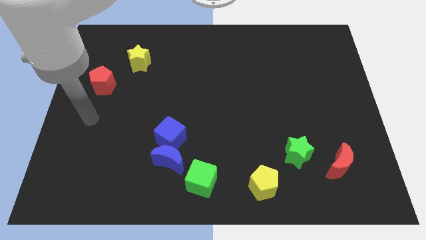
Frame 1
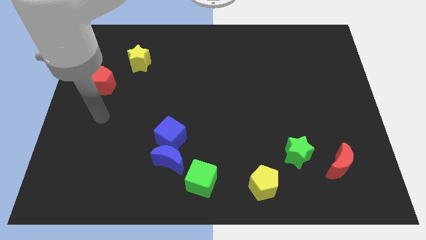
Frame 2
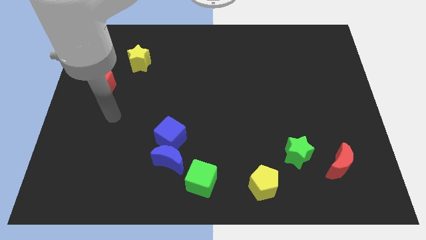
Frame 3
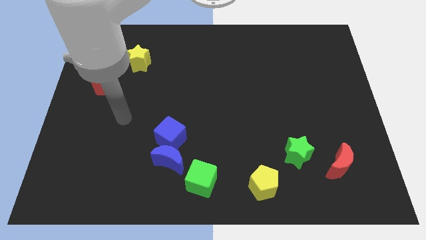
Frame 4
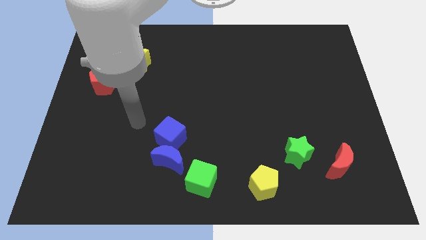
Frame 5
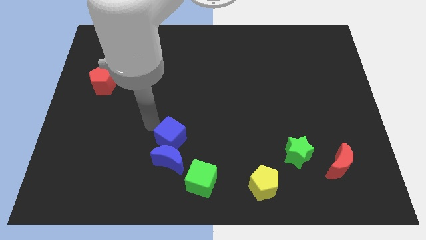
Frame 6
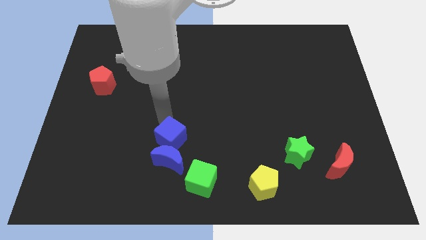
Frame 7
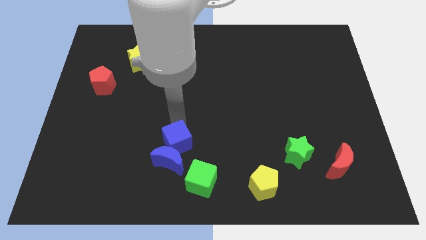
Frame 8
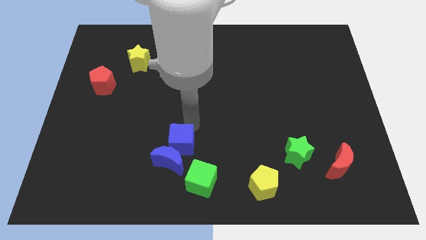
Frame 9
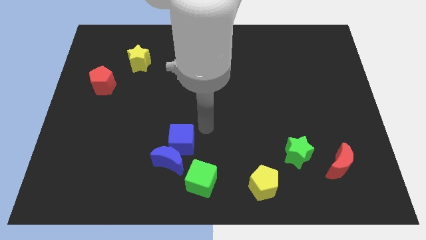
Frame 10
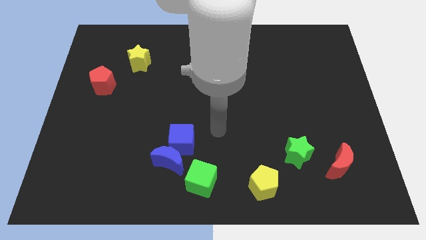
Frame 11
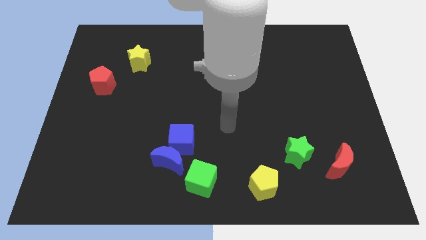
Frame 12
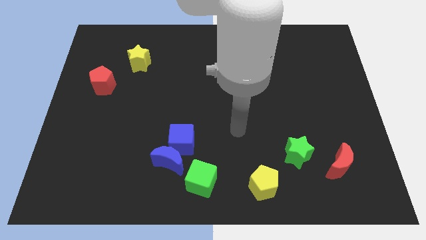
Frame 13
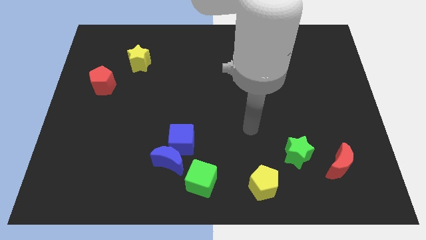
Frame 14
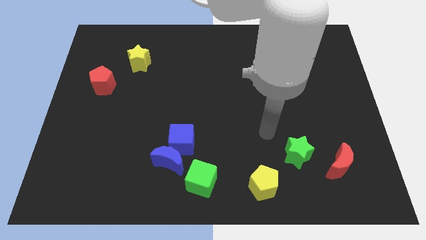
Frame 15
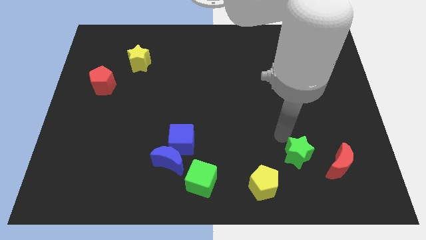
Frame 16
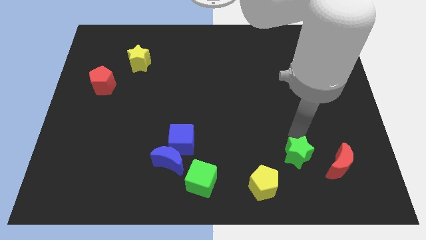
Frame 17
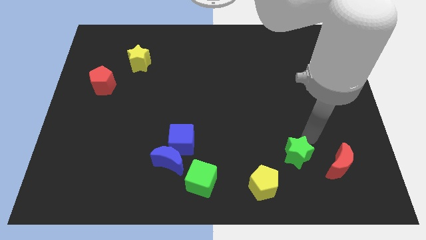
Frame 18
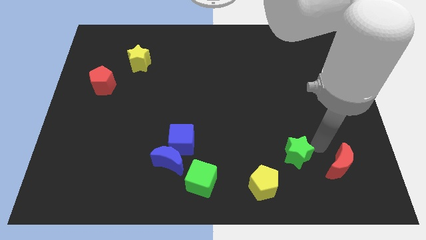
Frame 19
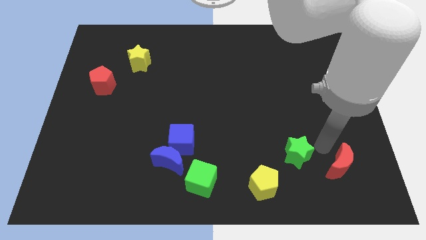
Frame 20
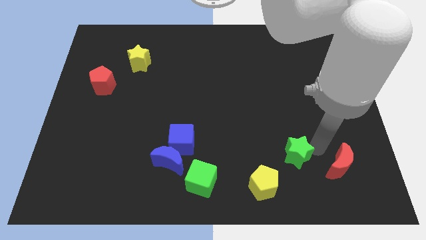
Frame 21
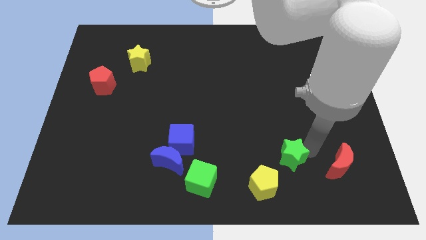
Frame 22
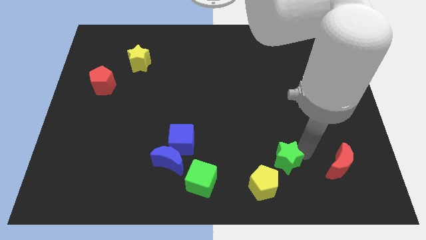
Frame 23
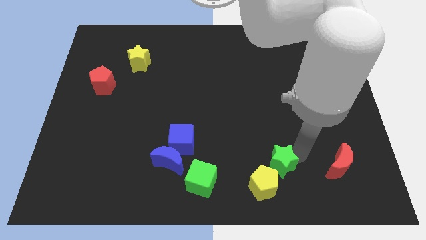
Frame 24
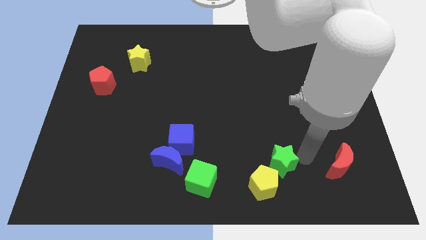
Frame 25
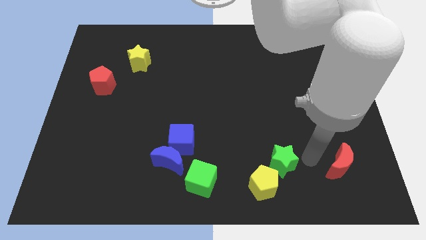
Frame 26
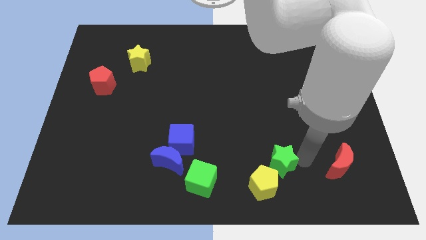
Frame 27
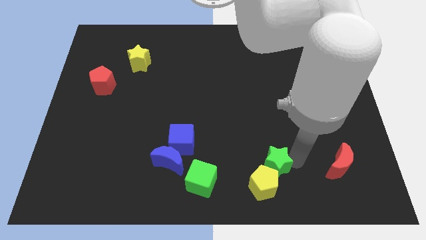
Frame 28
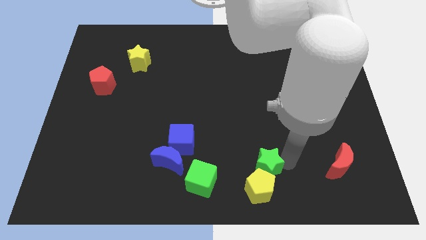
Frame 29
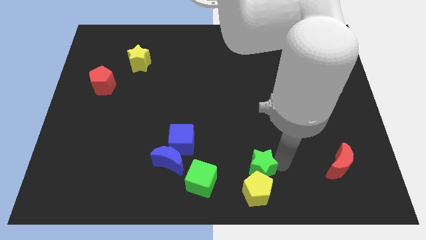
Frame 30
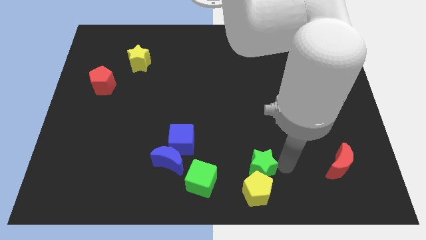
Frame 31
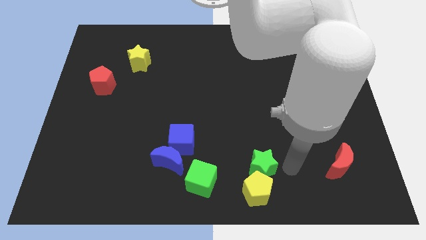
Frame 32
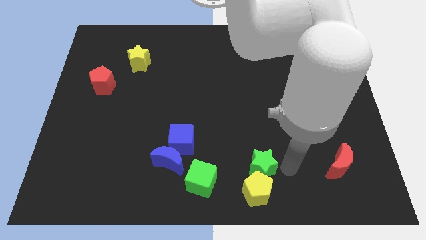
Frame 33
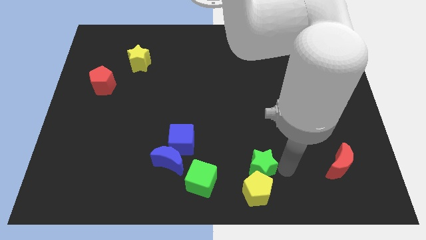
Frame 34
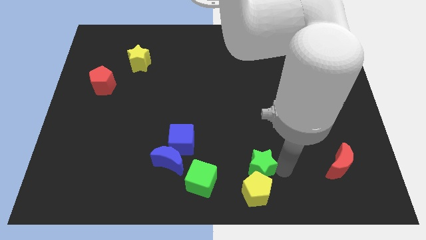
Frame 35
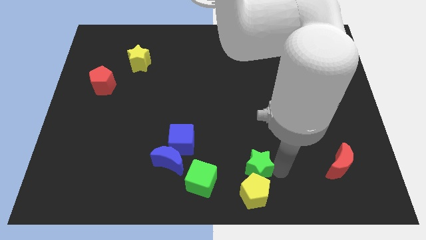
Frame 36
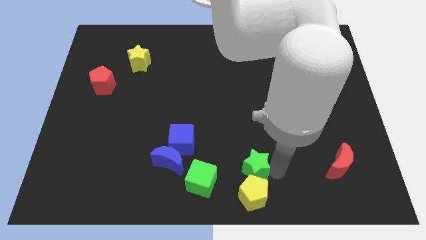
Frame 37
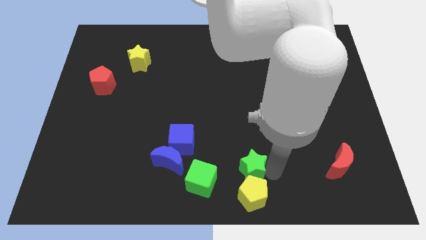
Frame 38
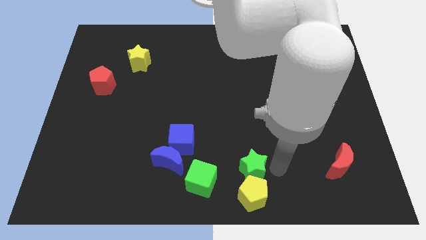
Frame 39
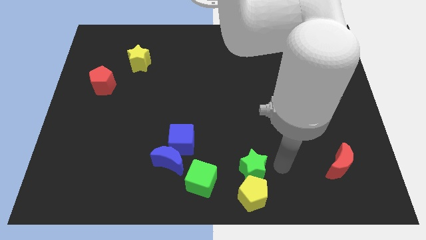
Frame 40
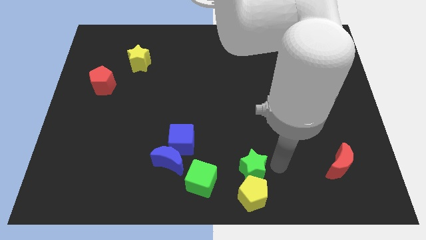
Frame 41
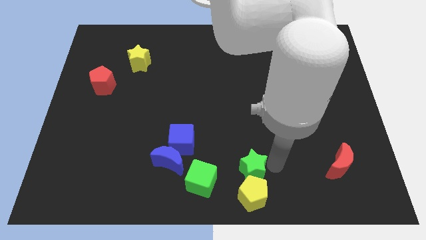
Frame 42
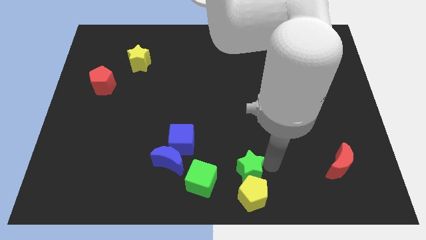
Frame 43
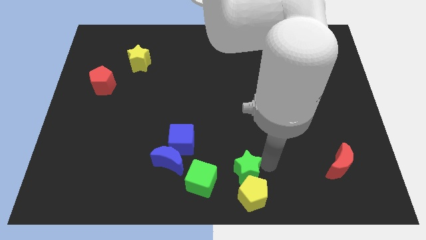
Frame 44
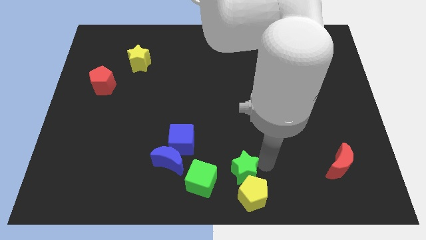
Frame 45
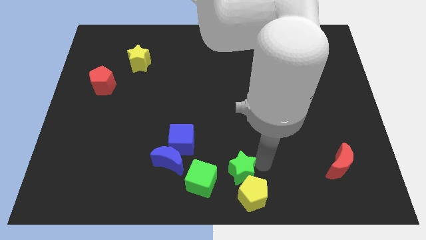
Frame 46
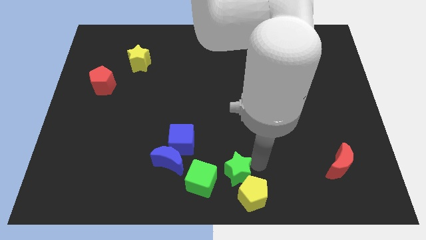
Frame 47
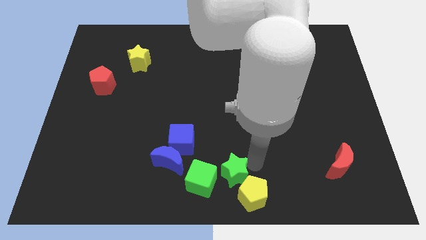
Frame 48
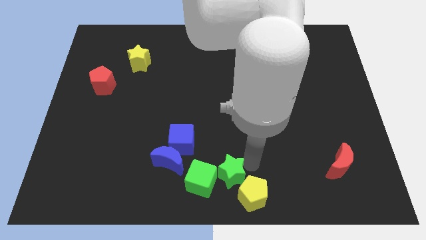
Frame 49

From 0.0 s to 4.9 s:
push the green star towards the green cube

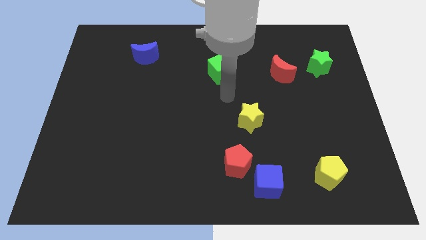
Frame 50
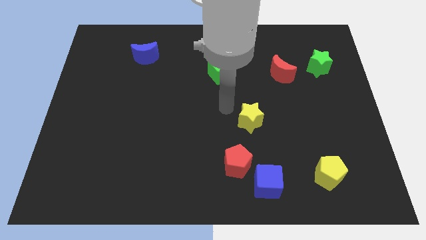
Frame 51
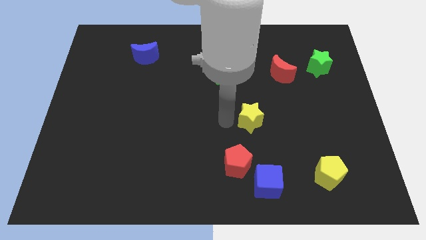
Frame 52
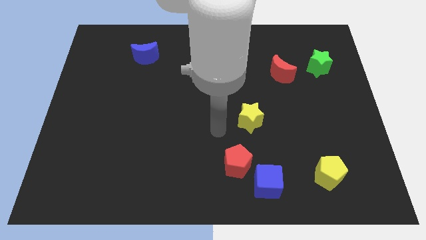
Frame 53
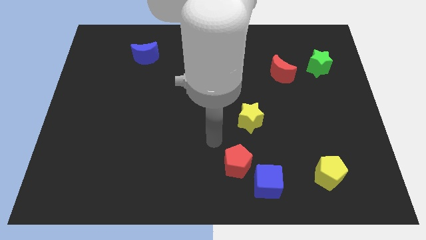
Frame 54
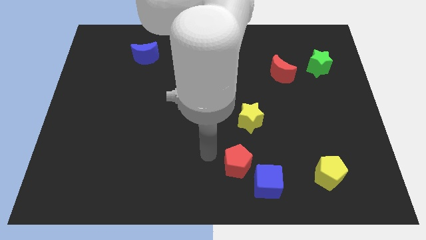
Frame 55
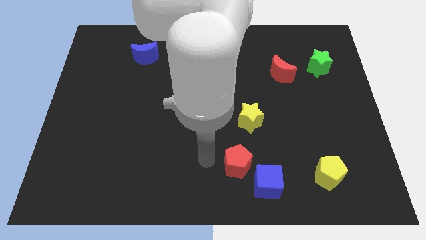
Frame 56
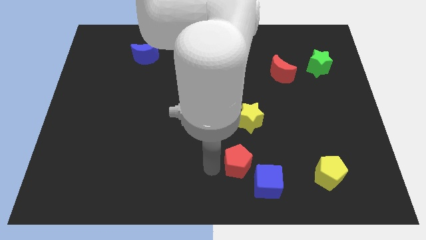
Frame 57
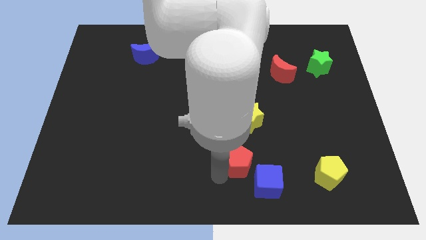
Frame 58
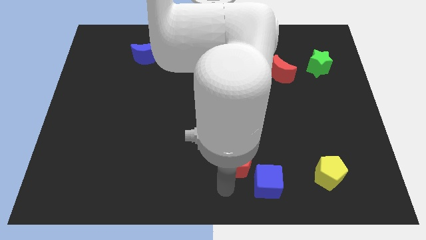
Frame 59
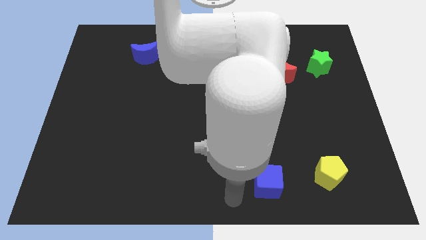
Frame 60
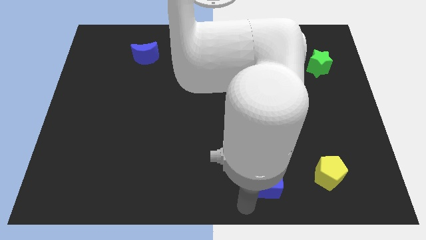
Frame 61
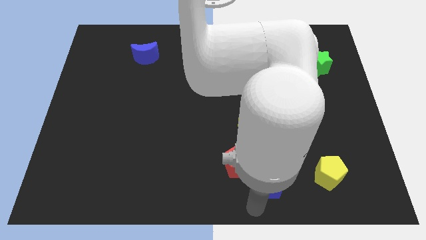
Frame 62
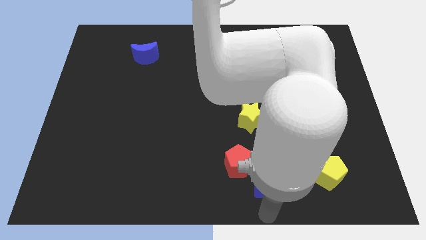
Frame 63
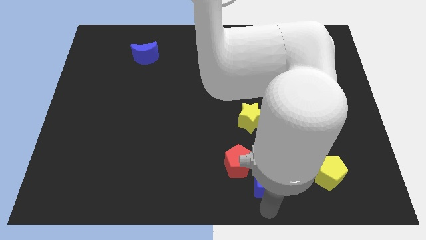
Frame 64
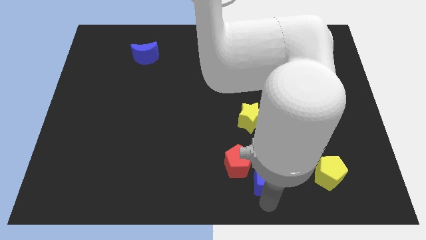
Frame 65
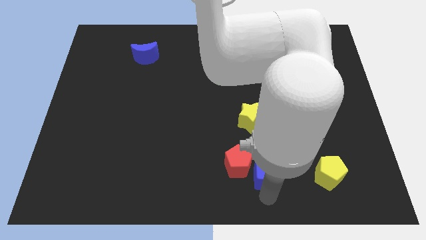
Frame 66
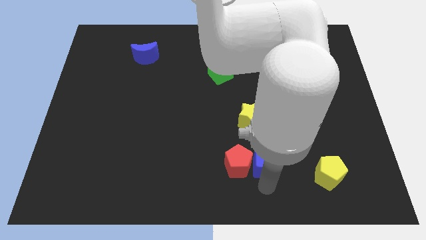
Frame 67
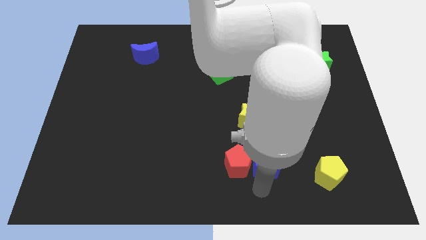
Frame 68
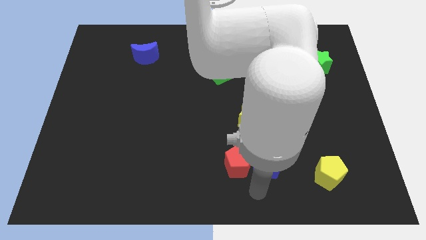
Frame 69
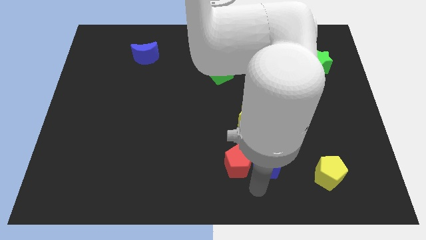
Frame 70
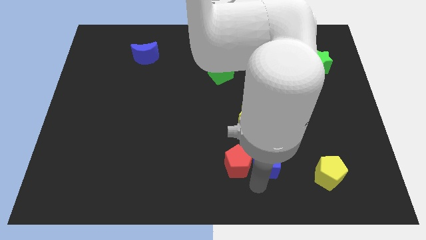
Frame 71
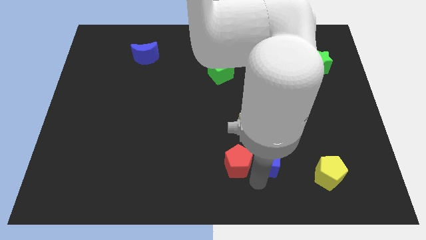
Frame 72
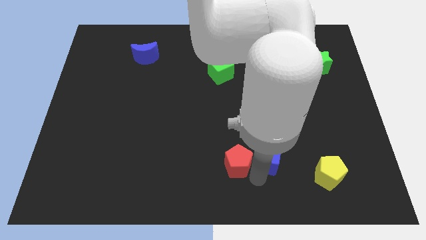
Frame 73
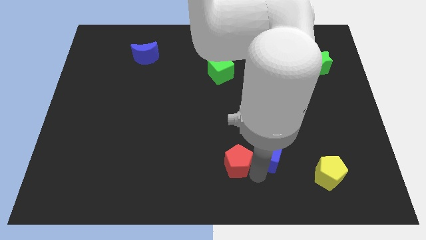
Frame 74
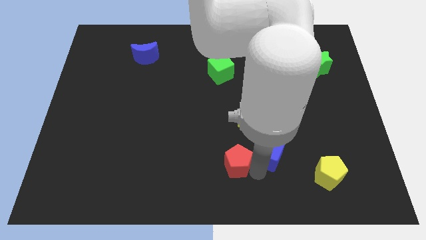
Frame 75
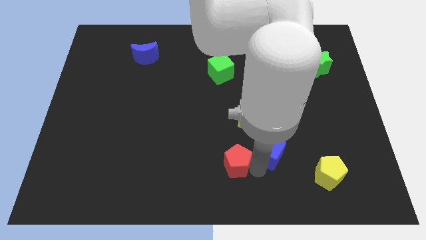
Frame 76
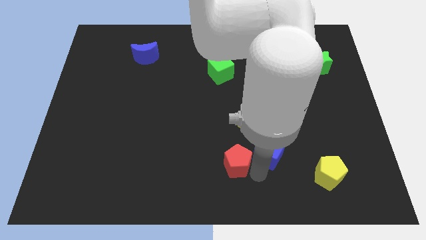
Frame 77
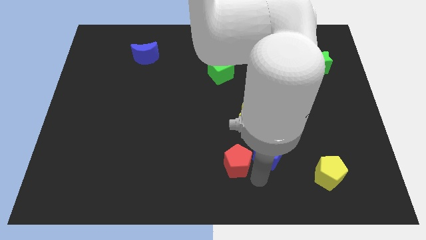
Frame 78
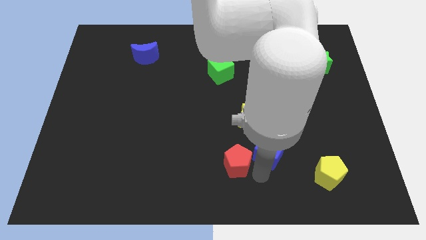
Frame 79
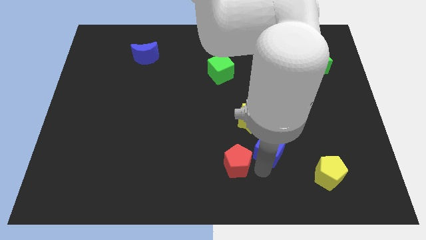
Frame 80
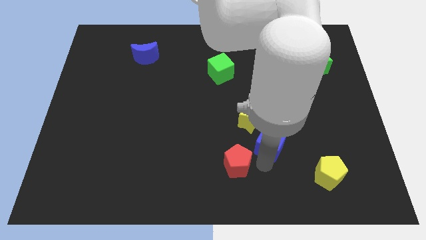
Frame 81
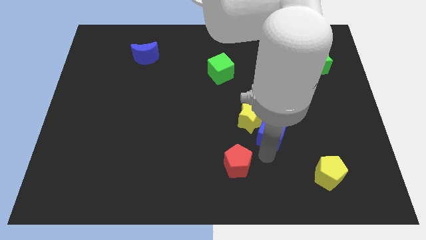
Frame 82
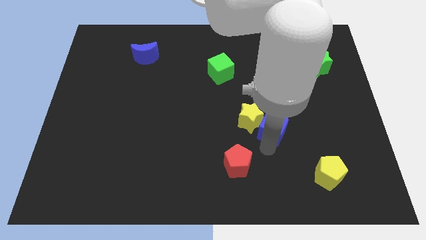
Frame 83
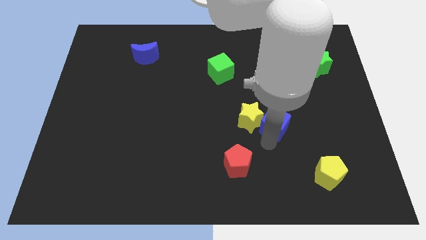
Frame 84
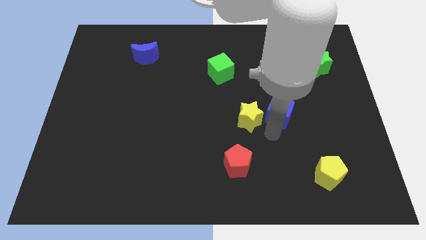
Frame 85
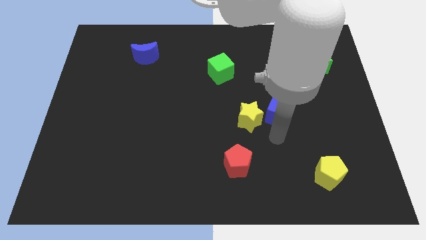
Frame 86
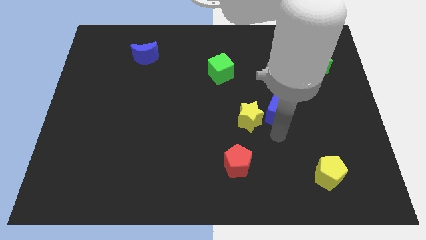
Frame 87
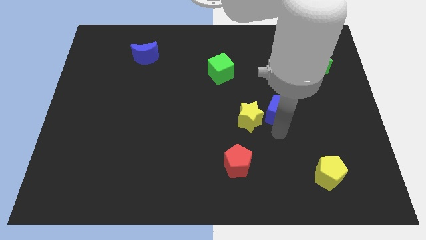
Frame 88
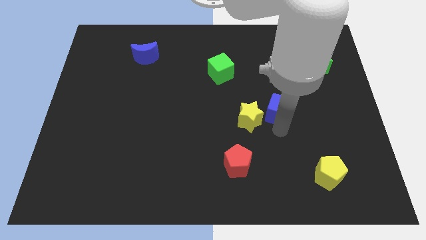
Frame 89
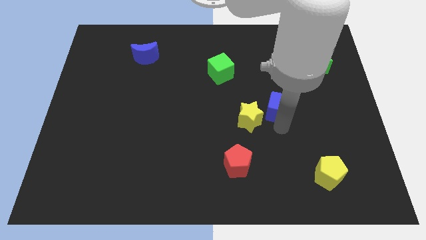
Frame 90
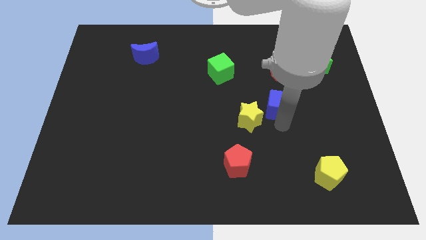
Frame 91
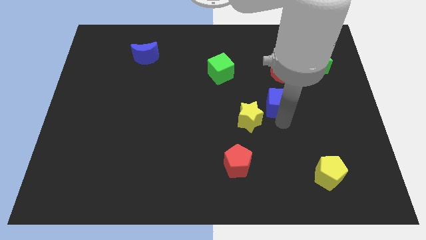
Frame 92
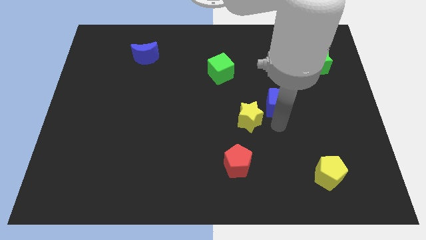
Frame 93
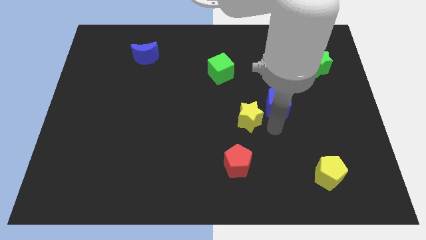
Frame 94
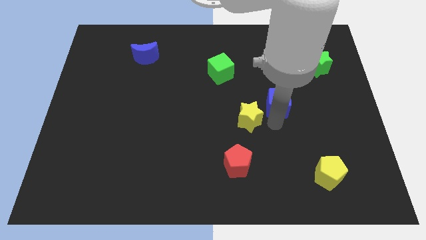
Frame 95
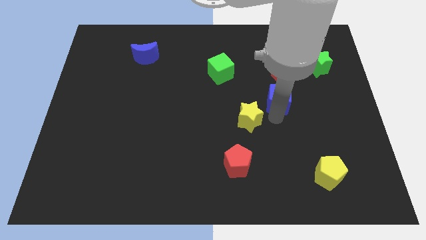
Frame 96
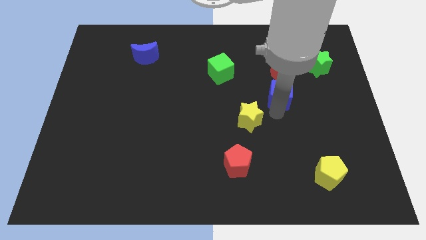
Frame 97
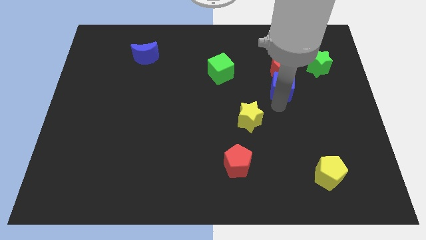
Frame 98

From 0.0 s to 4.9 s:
slide the blue cube close to the red moon
